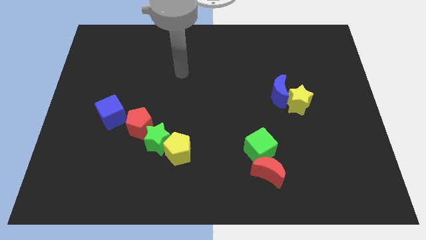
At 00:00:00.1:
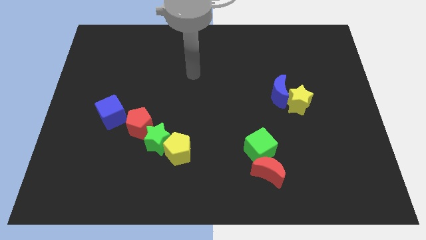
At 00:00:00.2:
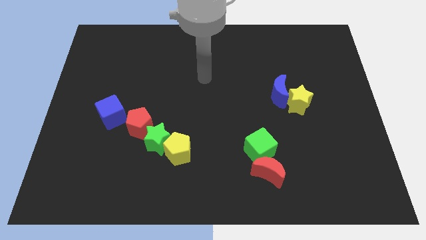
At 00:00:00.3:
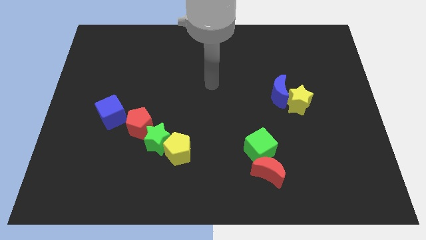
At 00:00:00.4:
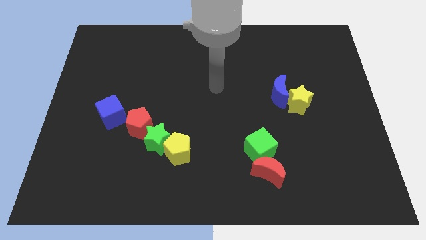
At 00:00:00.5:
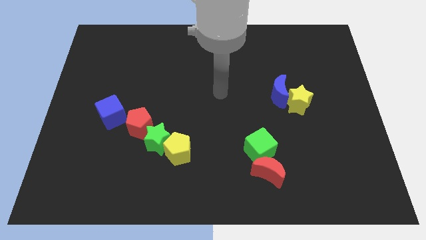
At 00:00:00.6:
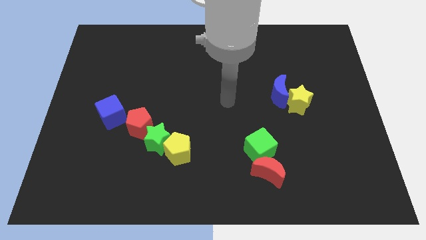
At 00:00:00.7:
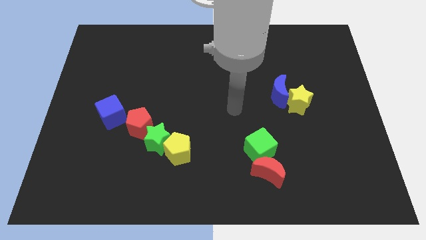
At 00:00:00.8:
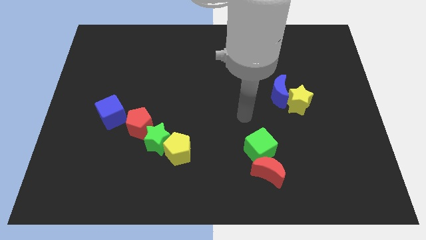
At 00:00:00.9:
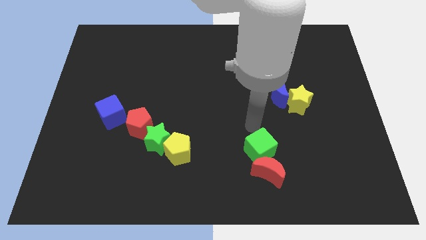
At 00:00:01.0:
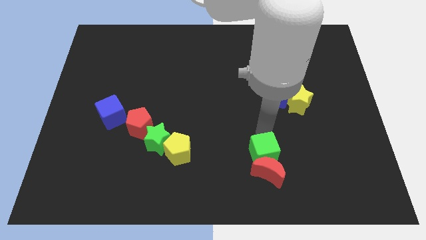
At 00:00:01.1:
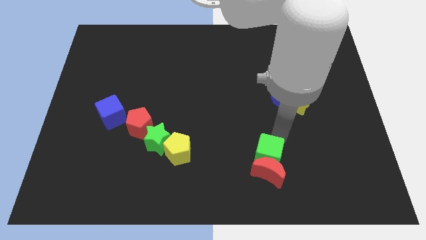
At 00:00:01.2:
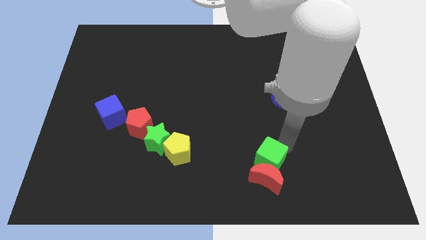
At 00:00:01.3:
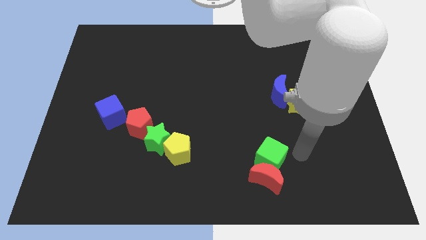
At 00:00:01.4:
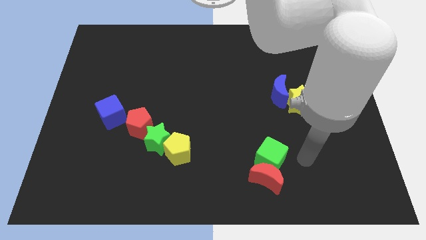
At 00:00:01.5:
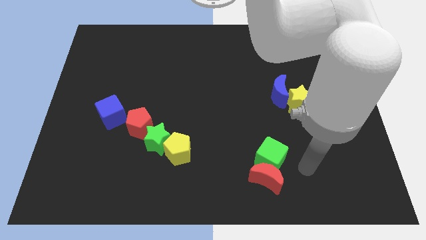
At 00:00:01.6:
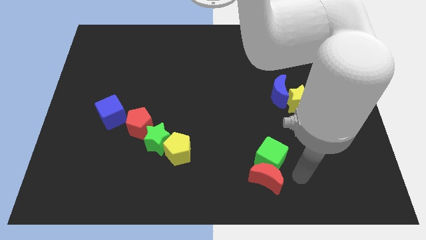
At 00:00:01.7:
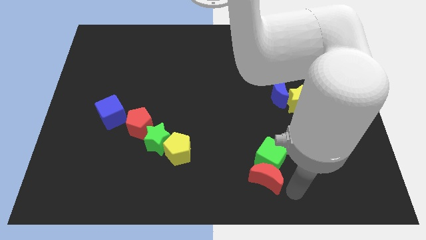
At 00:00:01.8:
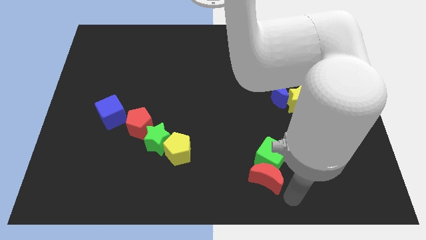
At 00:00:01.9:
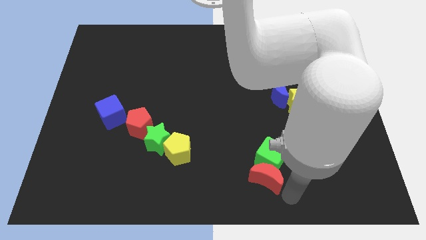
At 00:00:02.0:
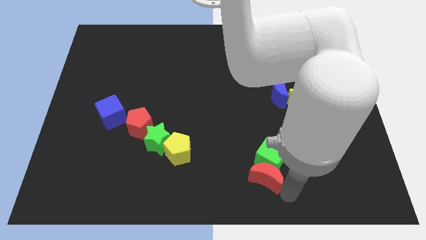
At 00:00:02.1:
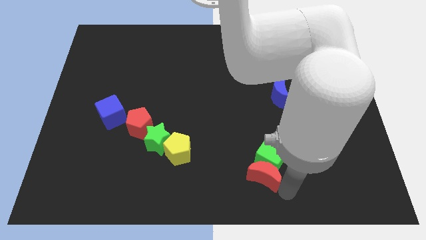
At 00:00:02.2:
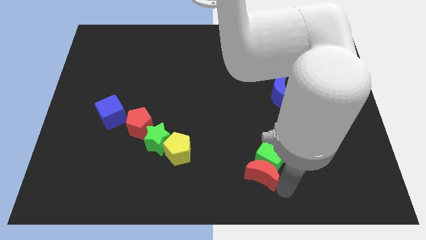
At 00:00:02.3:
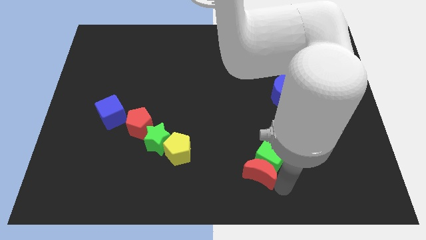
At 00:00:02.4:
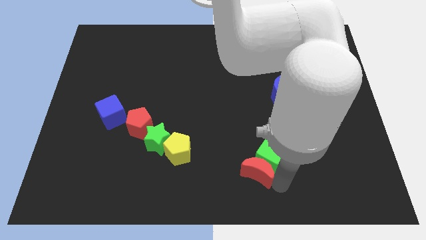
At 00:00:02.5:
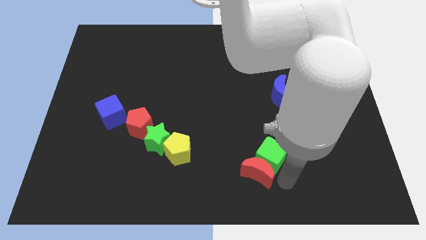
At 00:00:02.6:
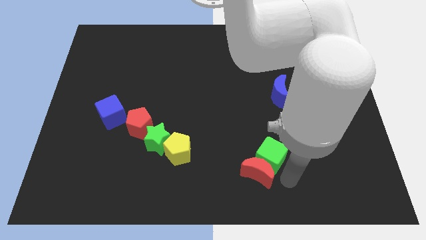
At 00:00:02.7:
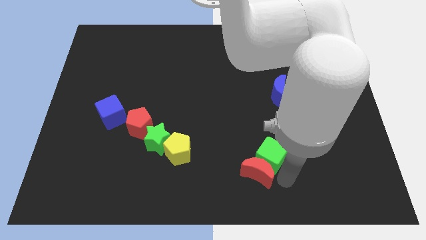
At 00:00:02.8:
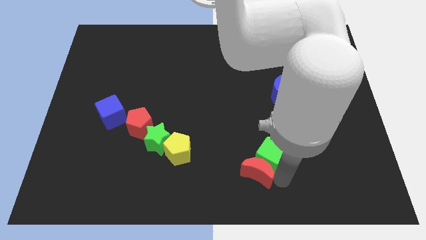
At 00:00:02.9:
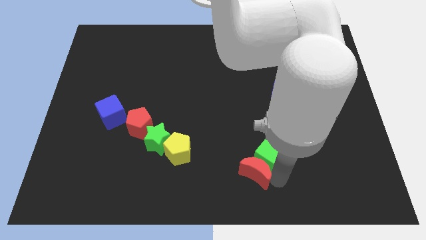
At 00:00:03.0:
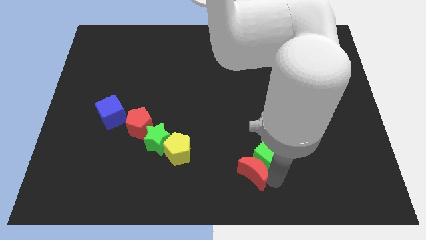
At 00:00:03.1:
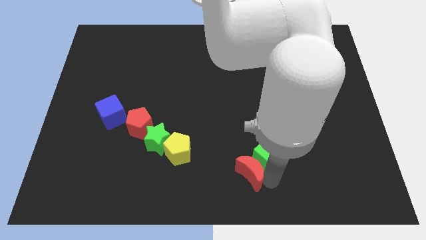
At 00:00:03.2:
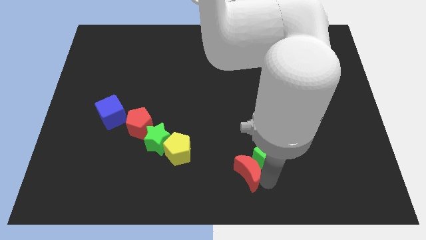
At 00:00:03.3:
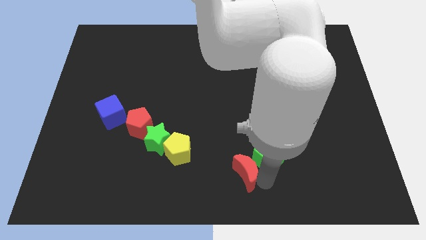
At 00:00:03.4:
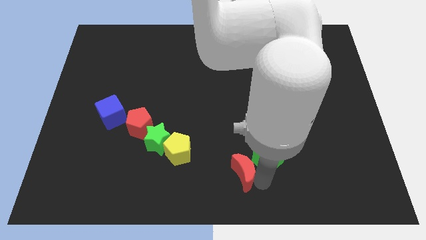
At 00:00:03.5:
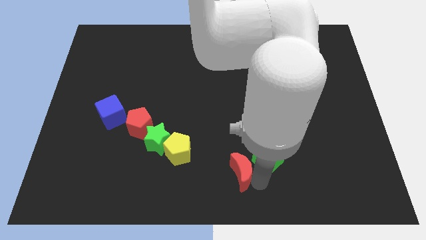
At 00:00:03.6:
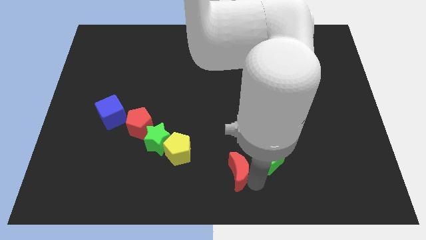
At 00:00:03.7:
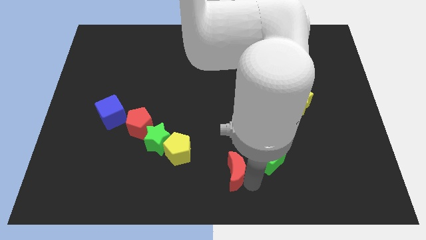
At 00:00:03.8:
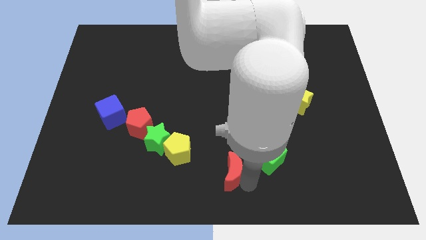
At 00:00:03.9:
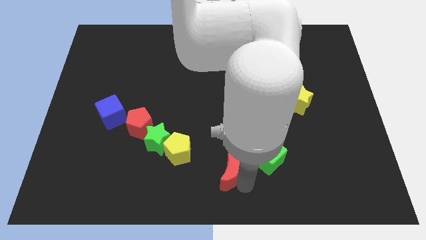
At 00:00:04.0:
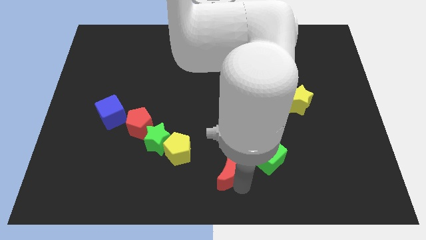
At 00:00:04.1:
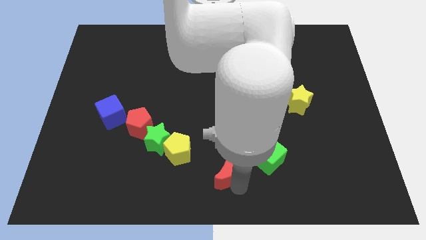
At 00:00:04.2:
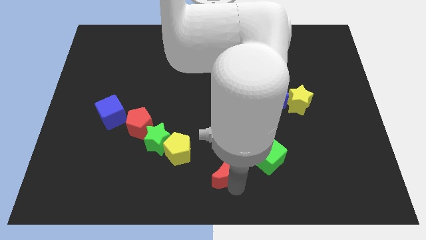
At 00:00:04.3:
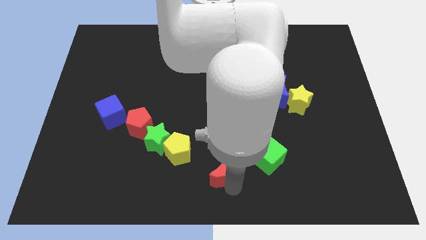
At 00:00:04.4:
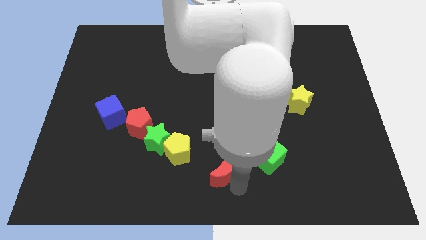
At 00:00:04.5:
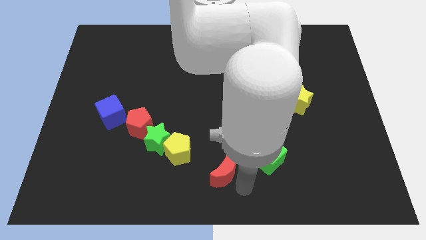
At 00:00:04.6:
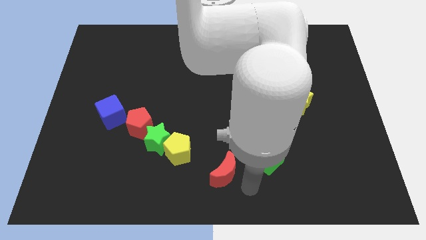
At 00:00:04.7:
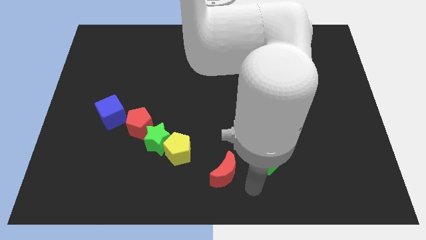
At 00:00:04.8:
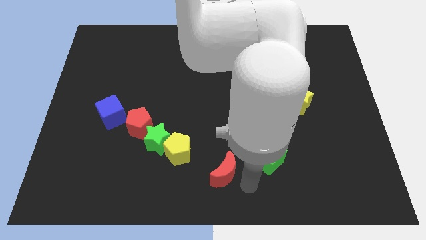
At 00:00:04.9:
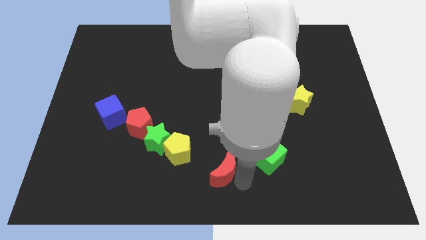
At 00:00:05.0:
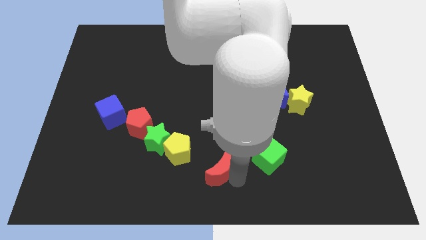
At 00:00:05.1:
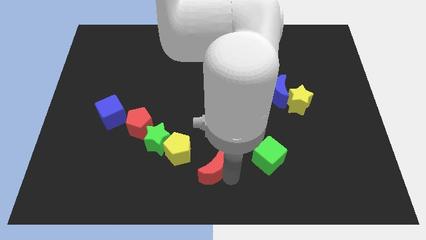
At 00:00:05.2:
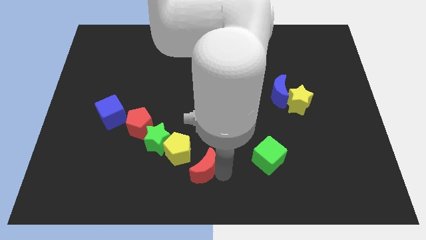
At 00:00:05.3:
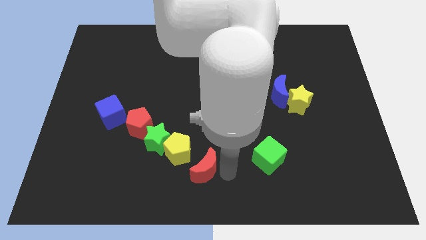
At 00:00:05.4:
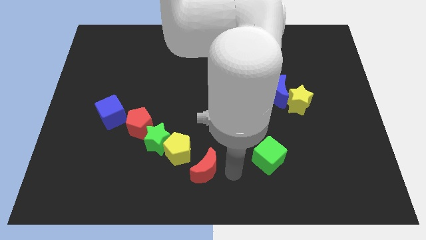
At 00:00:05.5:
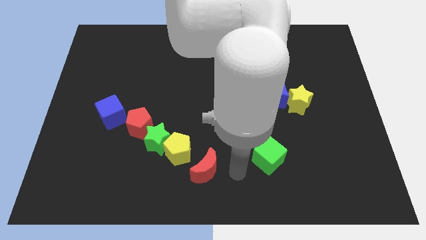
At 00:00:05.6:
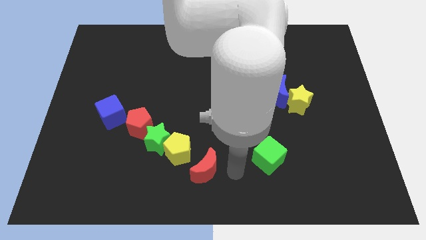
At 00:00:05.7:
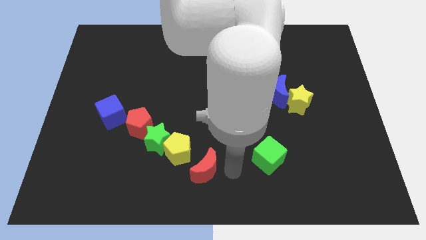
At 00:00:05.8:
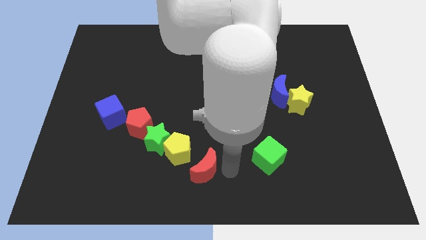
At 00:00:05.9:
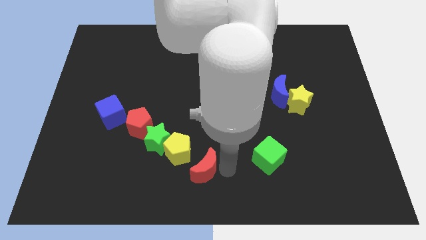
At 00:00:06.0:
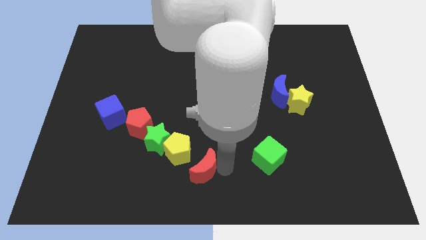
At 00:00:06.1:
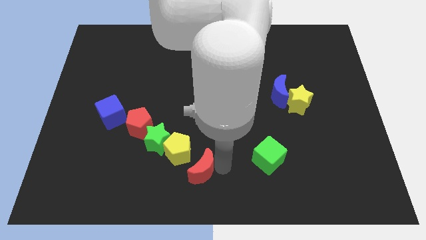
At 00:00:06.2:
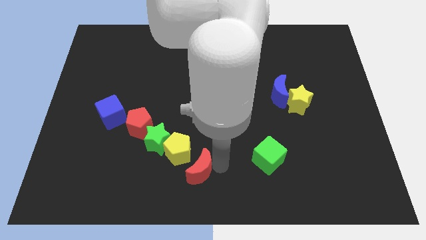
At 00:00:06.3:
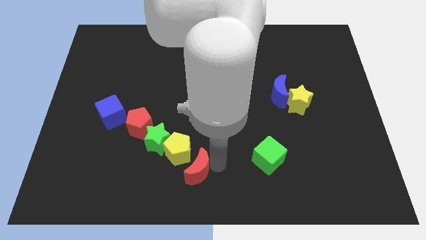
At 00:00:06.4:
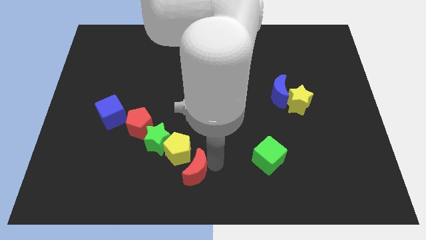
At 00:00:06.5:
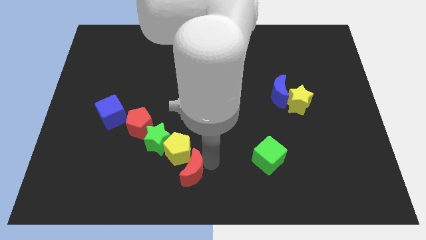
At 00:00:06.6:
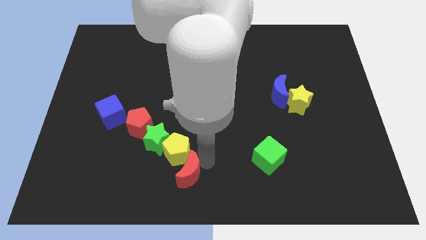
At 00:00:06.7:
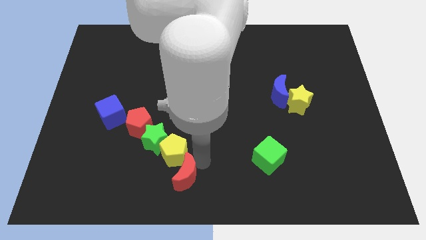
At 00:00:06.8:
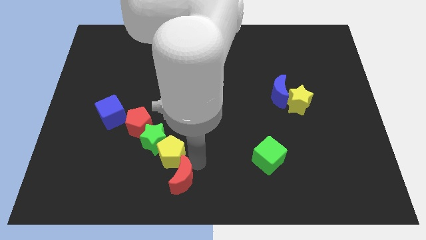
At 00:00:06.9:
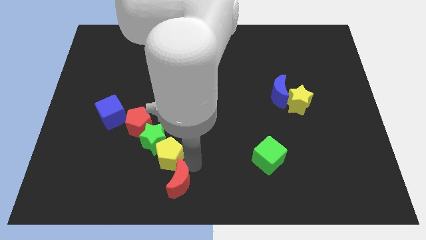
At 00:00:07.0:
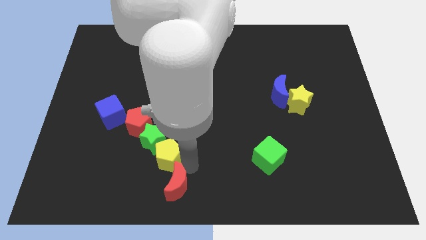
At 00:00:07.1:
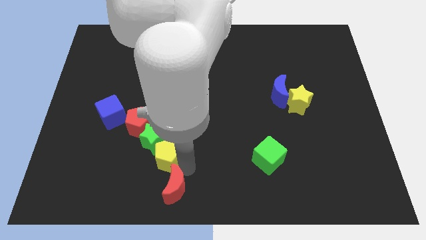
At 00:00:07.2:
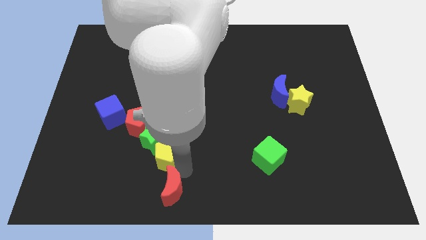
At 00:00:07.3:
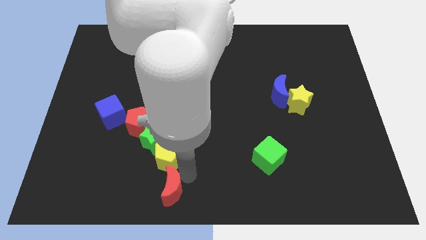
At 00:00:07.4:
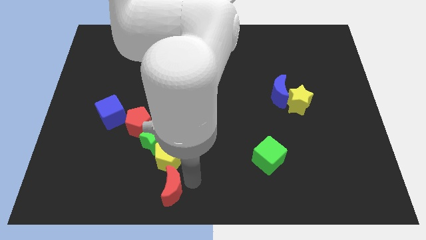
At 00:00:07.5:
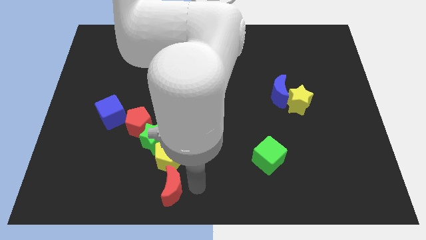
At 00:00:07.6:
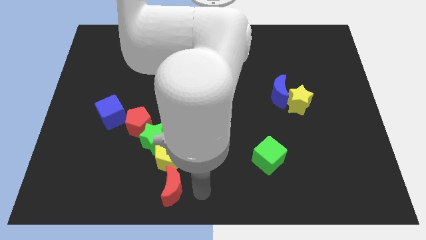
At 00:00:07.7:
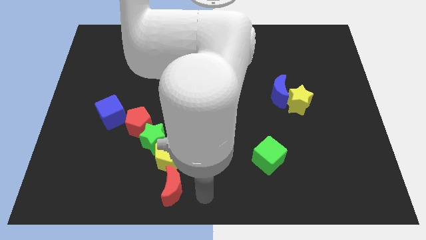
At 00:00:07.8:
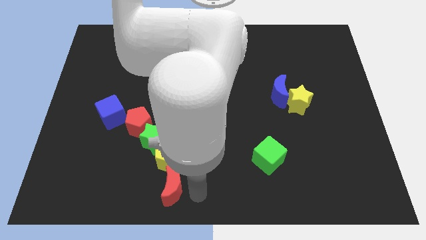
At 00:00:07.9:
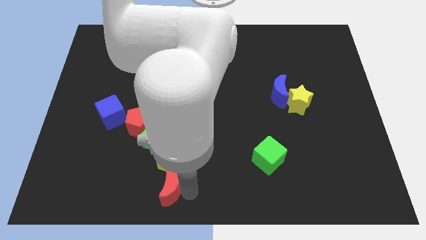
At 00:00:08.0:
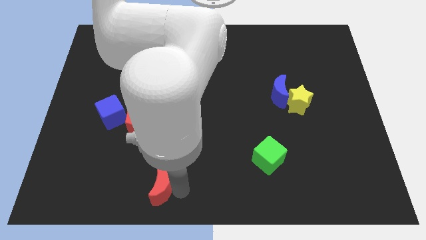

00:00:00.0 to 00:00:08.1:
put the red moon diagonally down and to the left of the yellow pentagon
